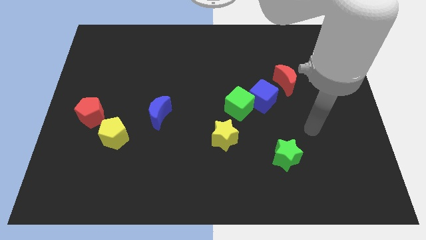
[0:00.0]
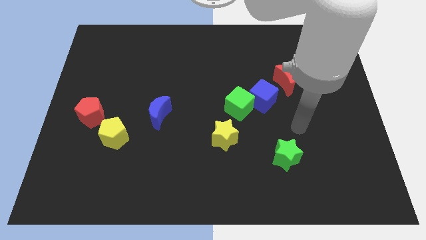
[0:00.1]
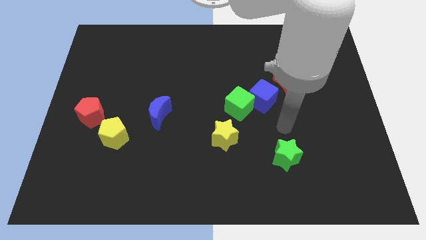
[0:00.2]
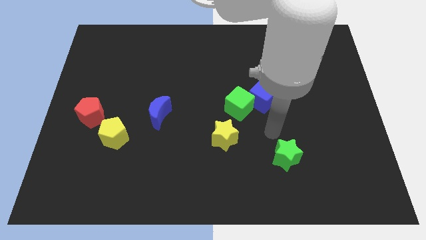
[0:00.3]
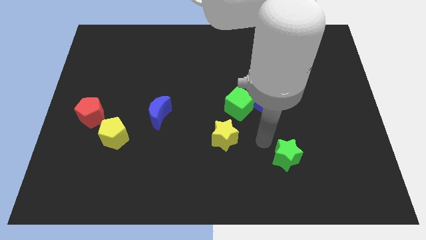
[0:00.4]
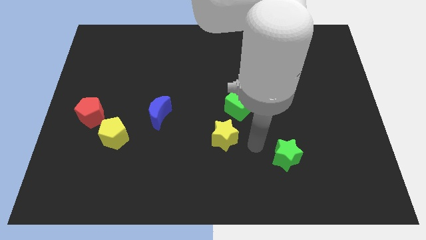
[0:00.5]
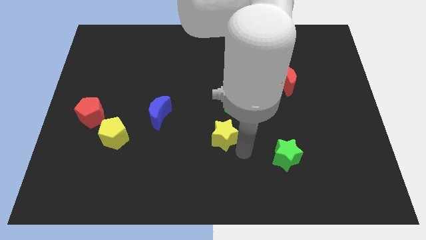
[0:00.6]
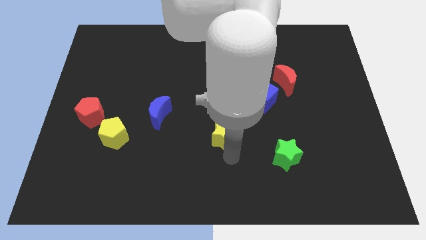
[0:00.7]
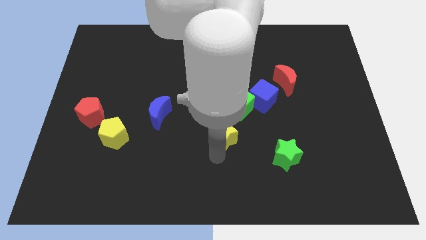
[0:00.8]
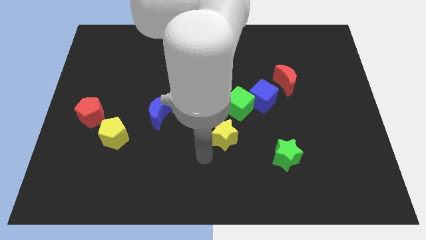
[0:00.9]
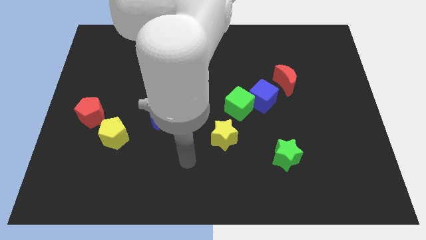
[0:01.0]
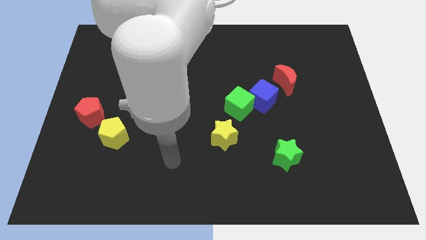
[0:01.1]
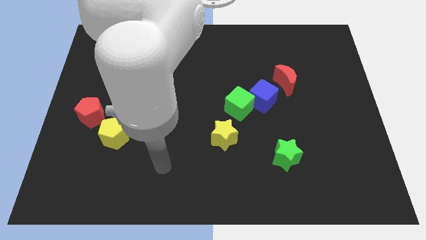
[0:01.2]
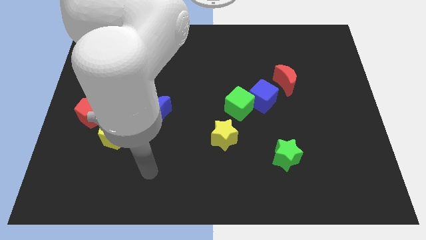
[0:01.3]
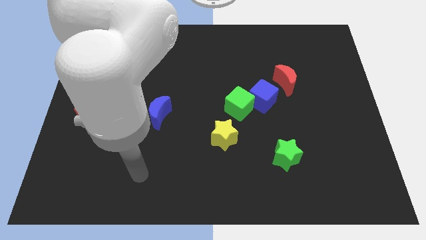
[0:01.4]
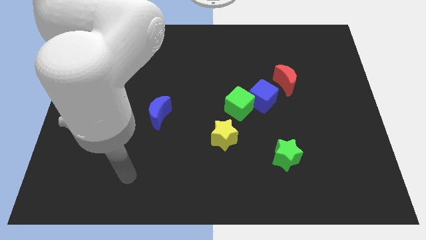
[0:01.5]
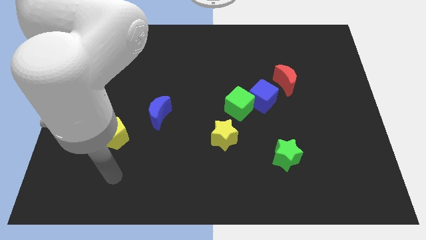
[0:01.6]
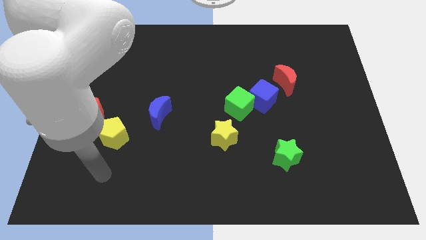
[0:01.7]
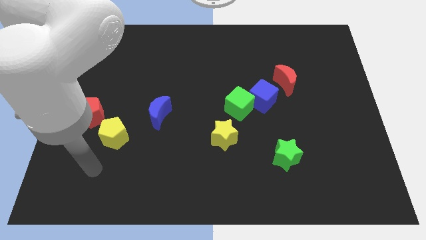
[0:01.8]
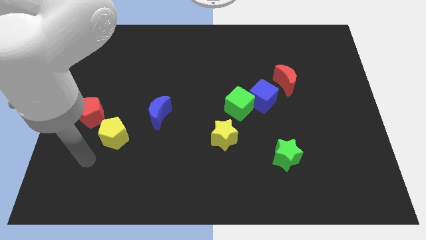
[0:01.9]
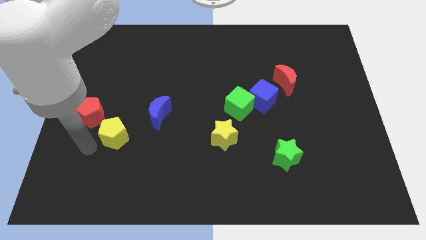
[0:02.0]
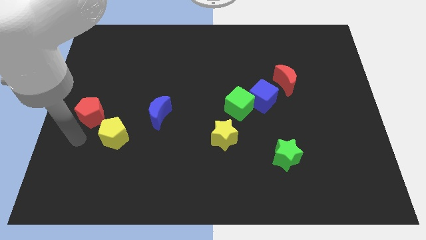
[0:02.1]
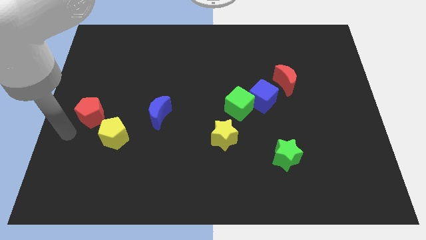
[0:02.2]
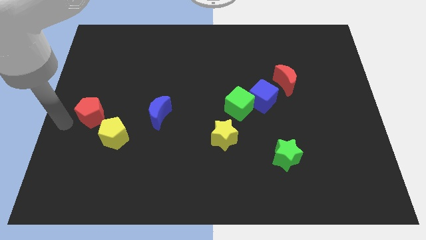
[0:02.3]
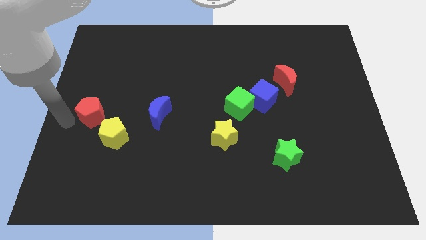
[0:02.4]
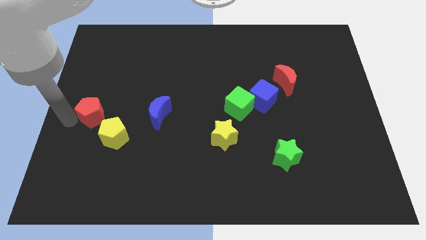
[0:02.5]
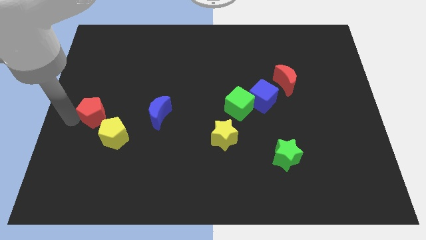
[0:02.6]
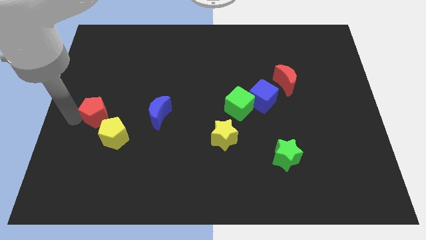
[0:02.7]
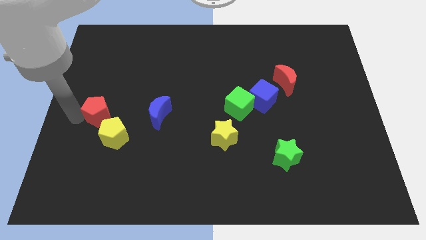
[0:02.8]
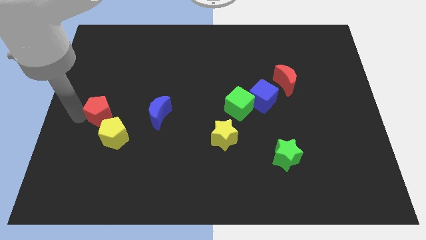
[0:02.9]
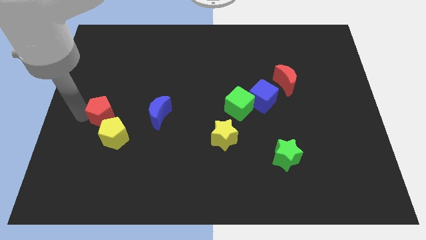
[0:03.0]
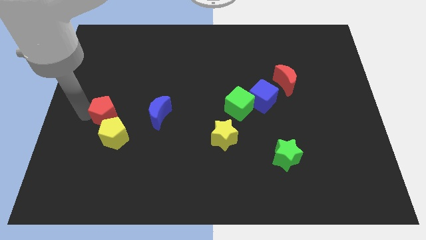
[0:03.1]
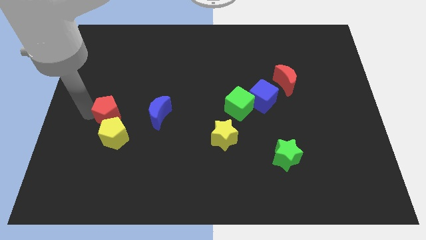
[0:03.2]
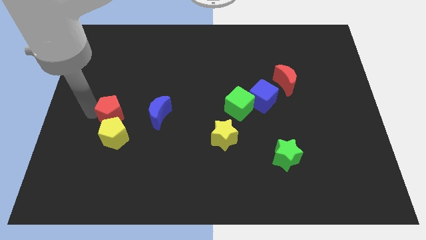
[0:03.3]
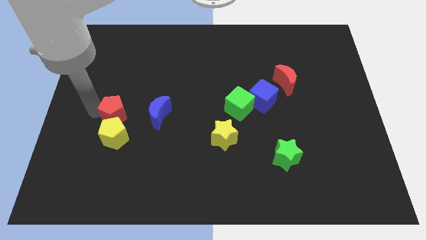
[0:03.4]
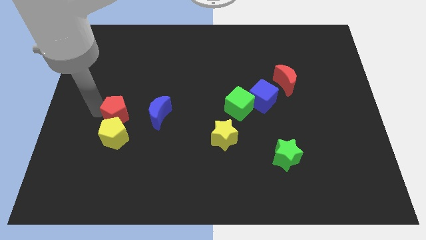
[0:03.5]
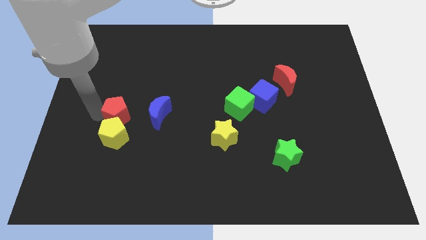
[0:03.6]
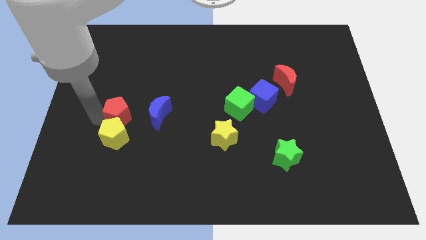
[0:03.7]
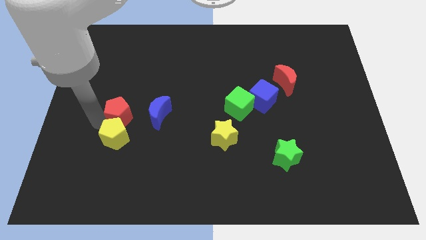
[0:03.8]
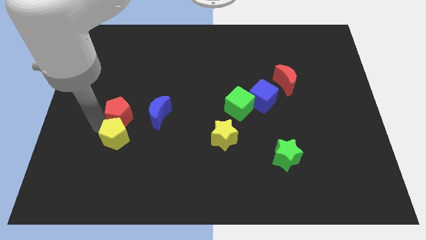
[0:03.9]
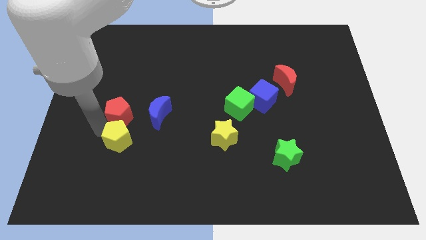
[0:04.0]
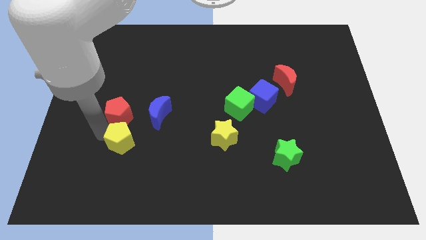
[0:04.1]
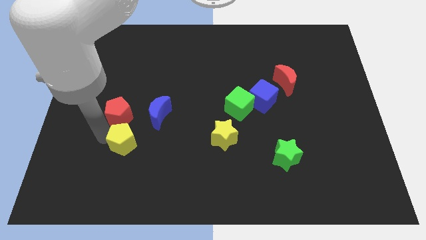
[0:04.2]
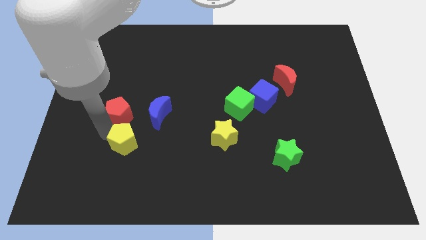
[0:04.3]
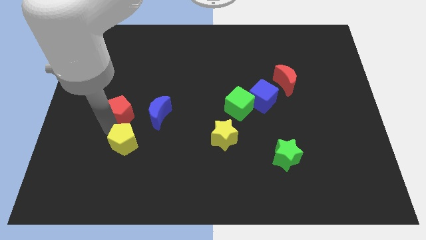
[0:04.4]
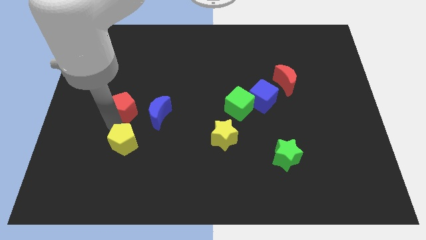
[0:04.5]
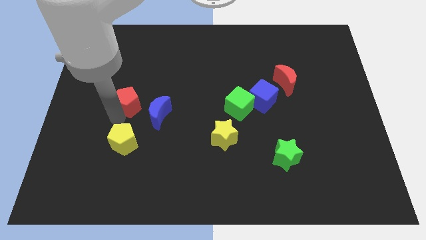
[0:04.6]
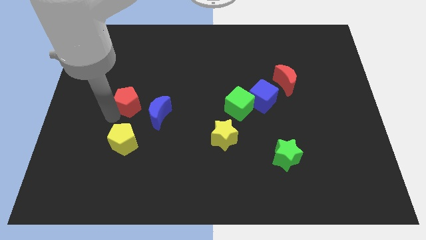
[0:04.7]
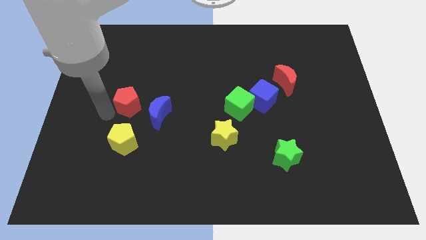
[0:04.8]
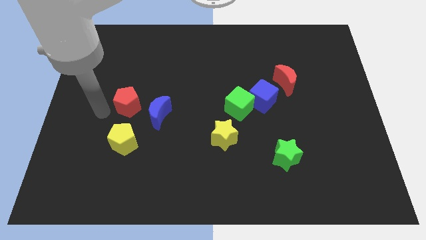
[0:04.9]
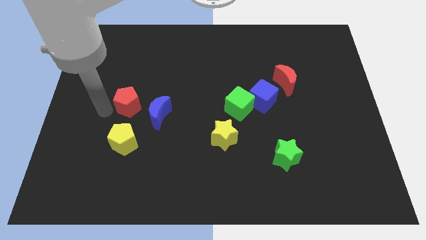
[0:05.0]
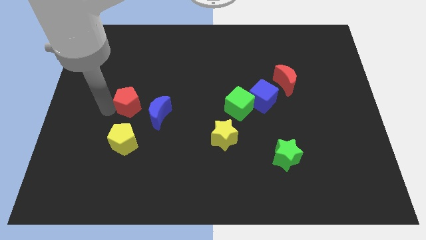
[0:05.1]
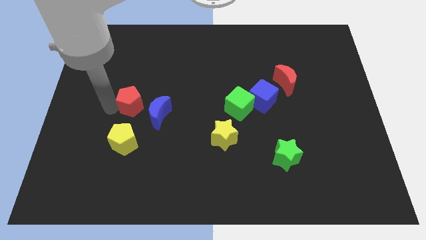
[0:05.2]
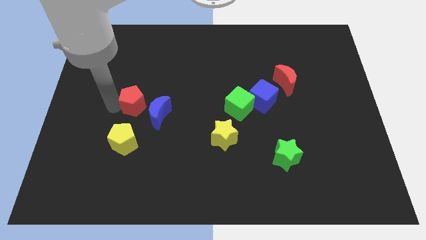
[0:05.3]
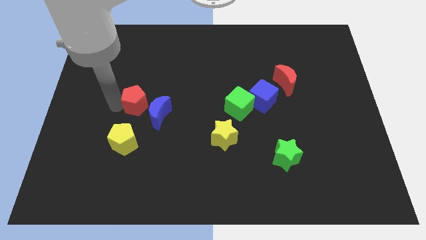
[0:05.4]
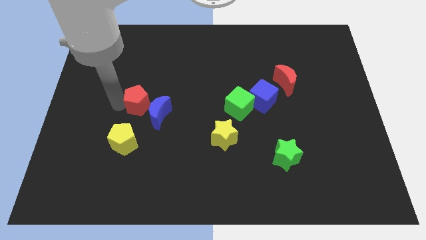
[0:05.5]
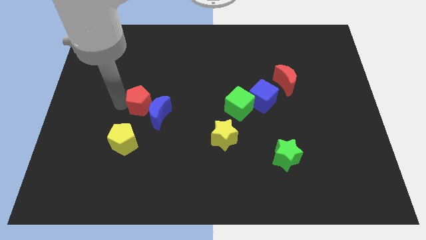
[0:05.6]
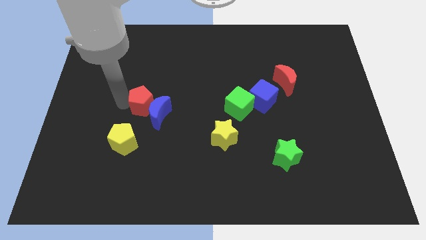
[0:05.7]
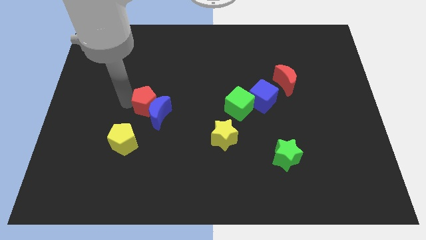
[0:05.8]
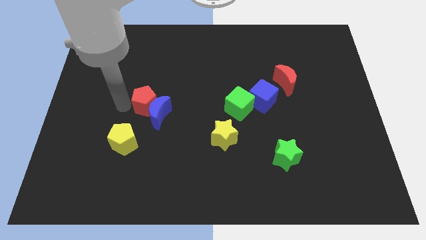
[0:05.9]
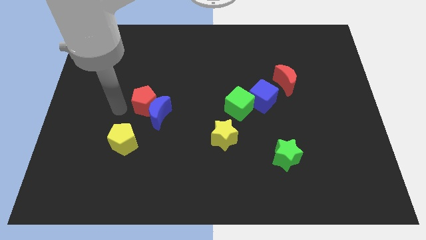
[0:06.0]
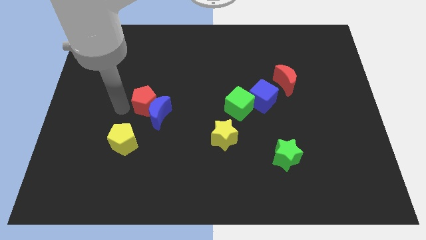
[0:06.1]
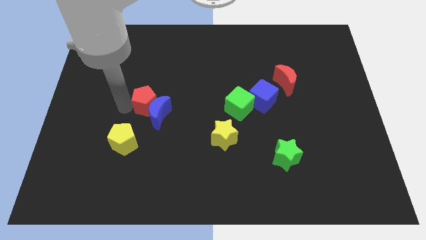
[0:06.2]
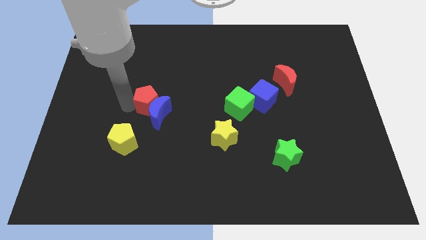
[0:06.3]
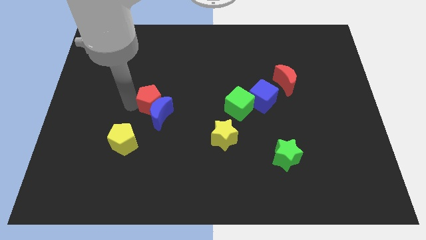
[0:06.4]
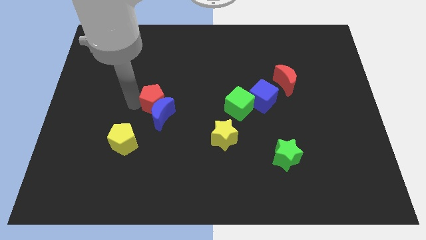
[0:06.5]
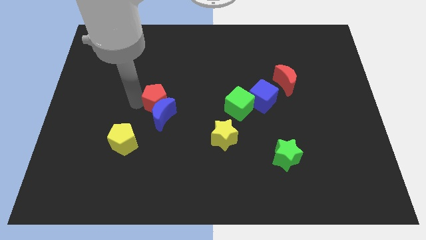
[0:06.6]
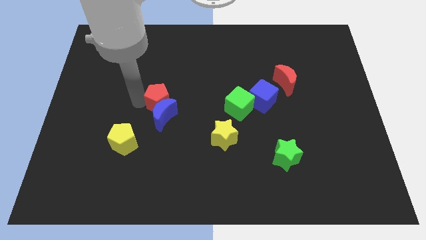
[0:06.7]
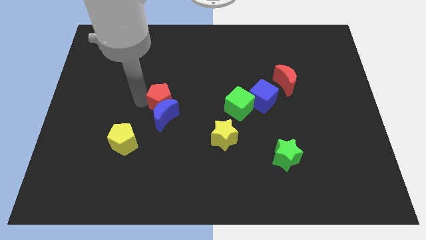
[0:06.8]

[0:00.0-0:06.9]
slide the red pentagon to the center

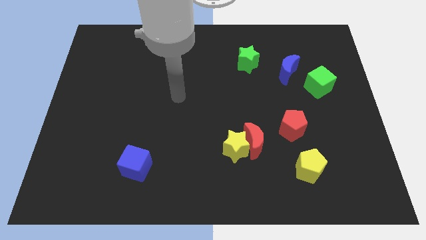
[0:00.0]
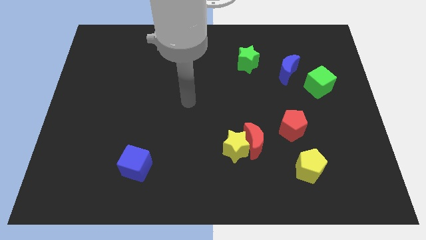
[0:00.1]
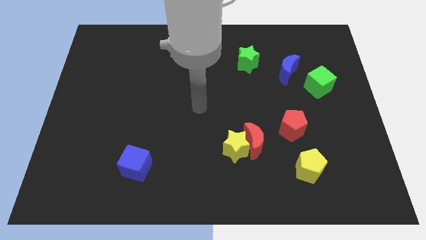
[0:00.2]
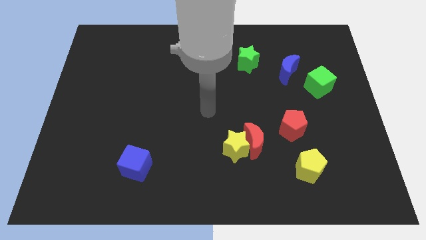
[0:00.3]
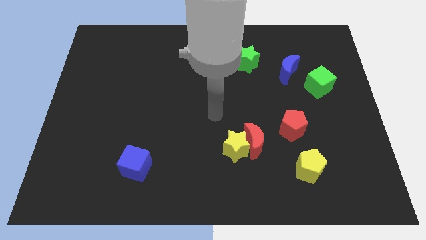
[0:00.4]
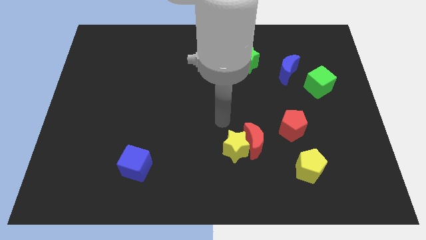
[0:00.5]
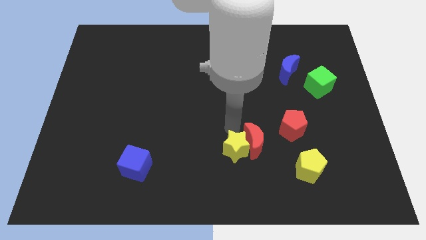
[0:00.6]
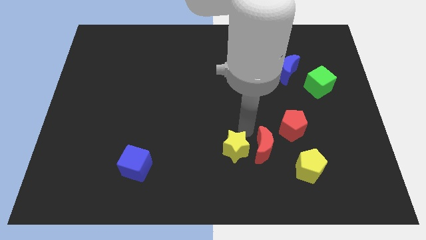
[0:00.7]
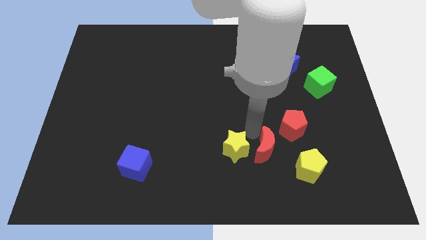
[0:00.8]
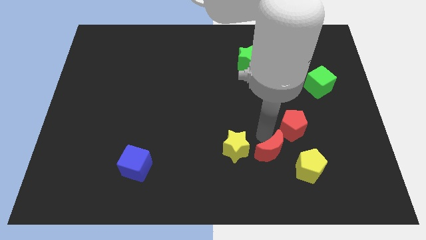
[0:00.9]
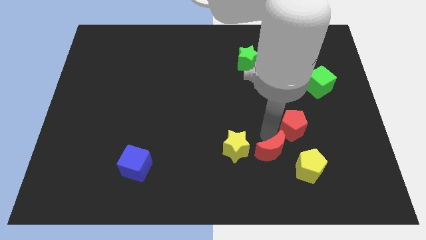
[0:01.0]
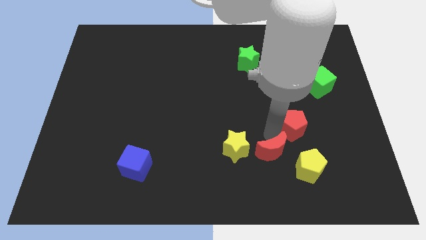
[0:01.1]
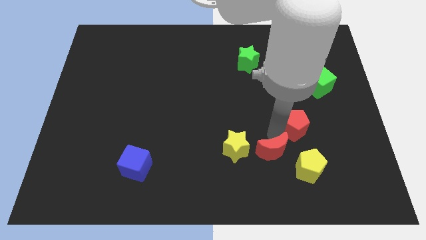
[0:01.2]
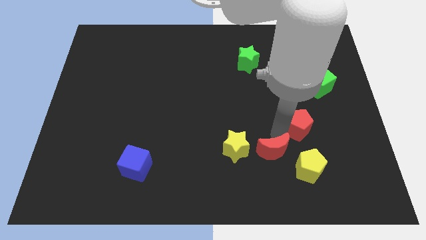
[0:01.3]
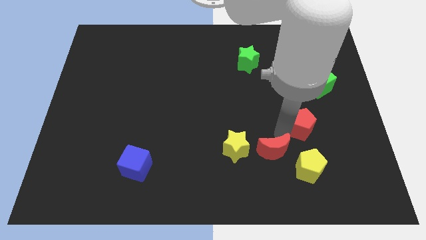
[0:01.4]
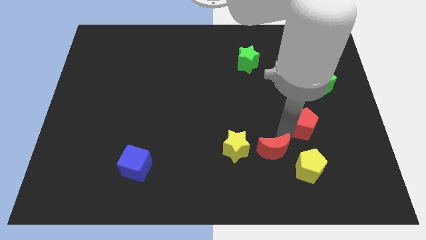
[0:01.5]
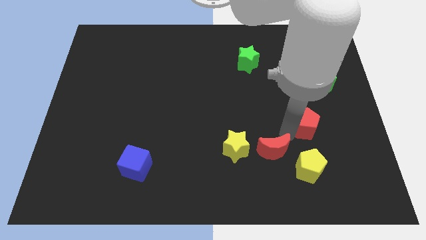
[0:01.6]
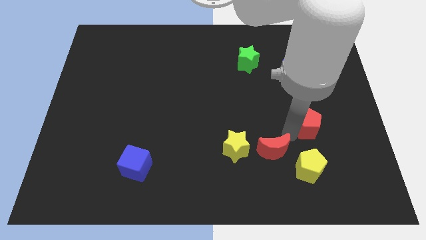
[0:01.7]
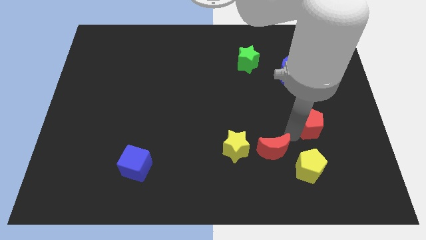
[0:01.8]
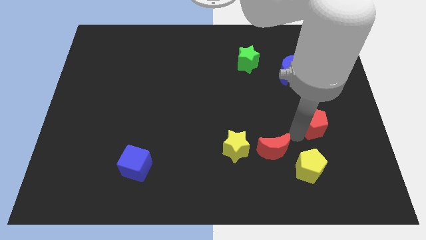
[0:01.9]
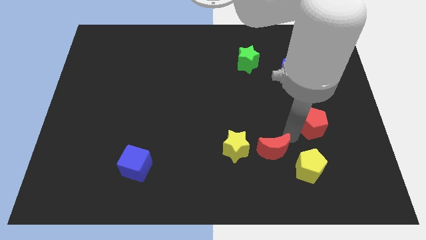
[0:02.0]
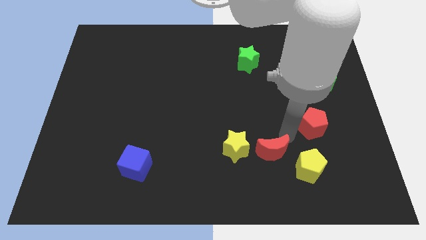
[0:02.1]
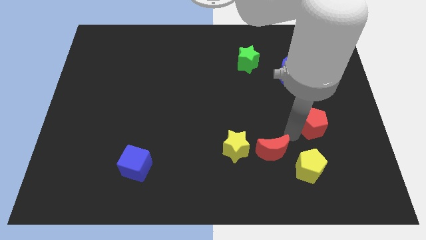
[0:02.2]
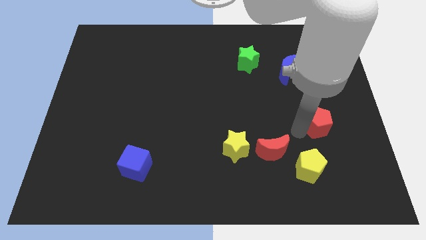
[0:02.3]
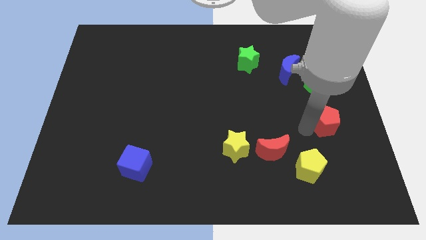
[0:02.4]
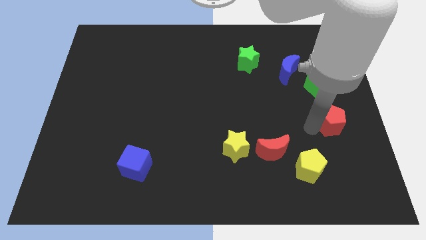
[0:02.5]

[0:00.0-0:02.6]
slide the red pentagon to the center right
